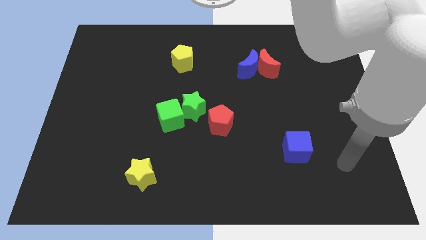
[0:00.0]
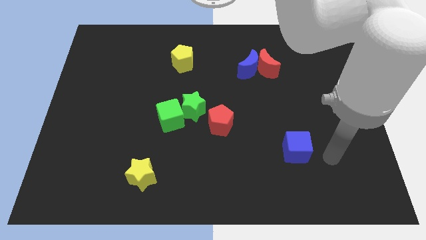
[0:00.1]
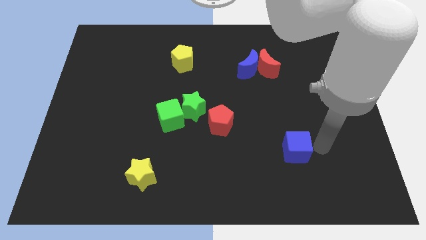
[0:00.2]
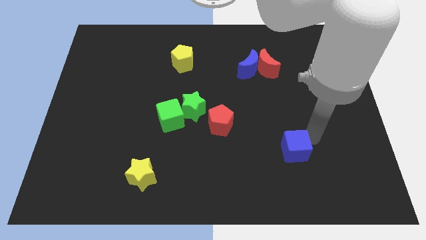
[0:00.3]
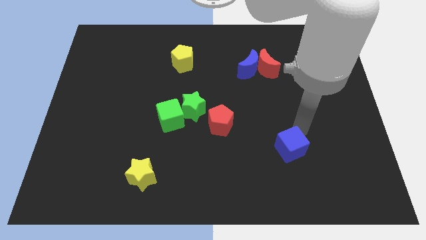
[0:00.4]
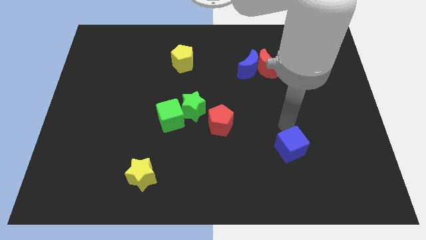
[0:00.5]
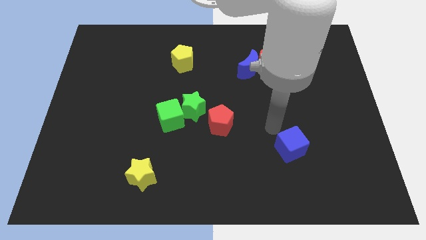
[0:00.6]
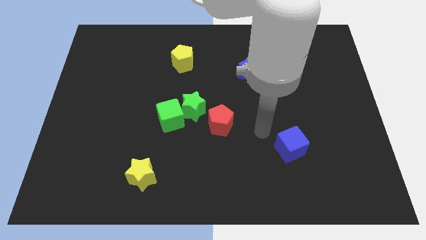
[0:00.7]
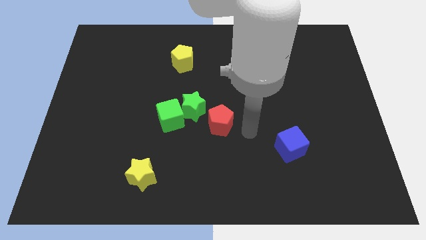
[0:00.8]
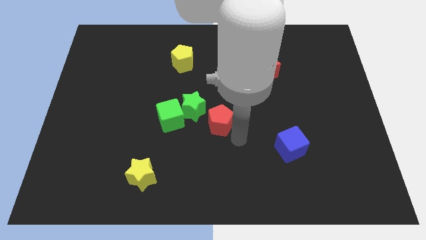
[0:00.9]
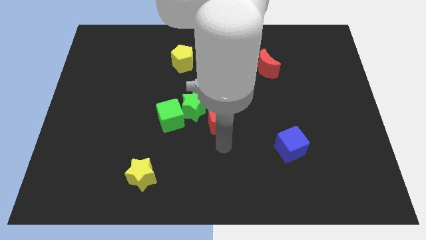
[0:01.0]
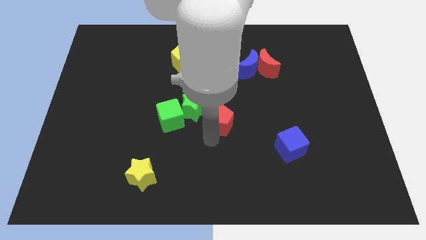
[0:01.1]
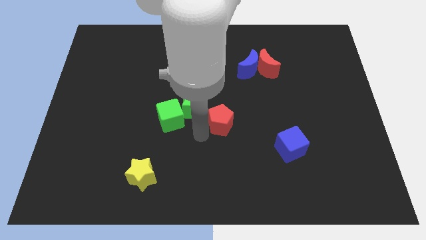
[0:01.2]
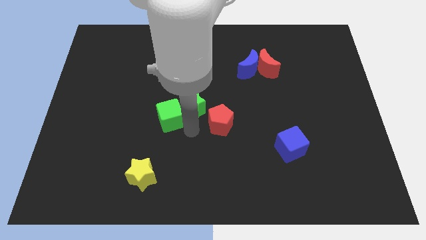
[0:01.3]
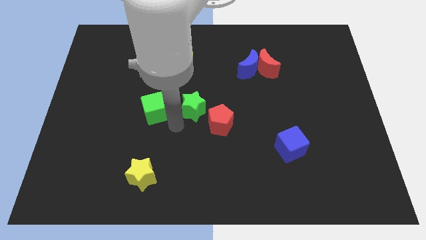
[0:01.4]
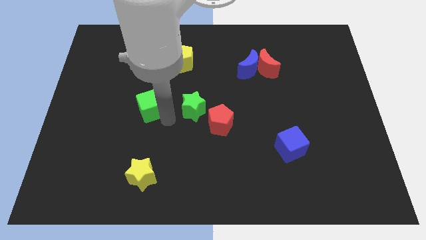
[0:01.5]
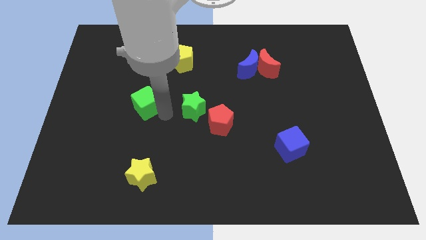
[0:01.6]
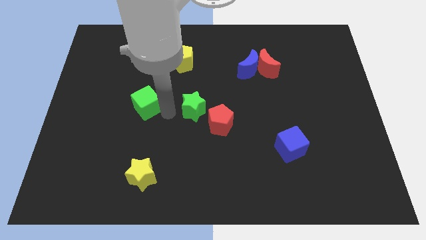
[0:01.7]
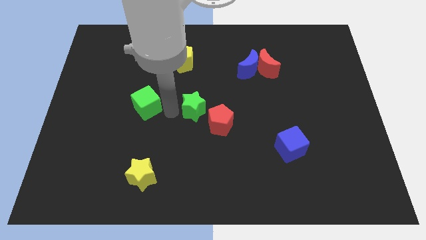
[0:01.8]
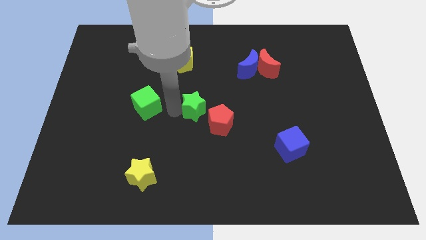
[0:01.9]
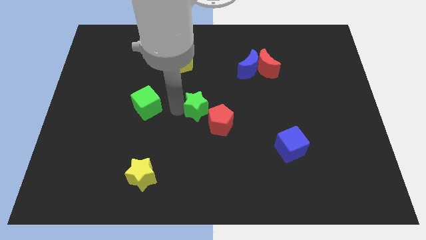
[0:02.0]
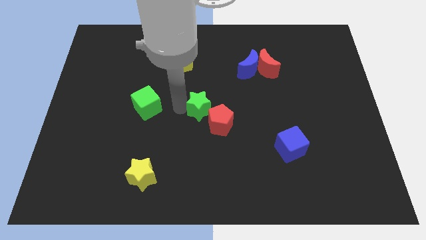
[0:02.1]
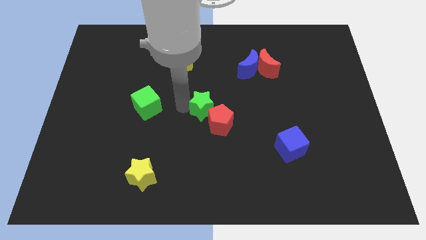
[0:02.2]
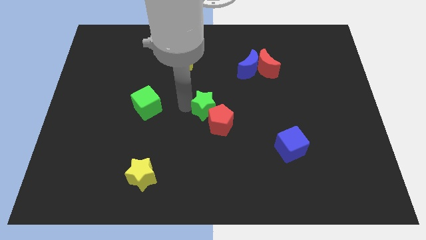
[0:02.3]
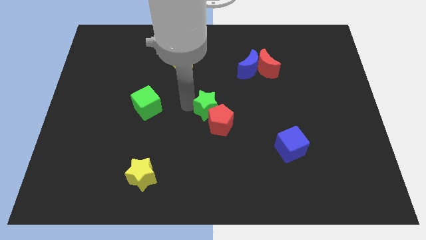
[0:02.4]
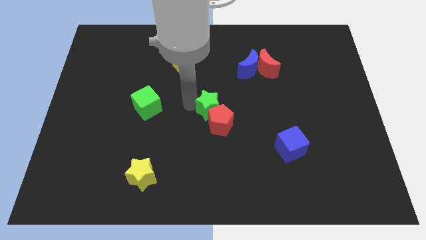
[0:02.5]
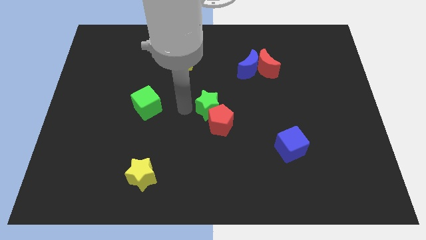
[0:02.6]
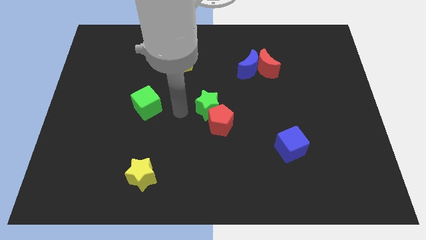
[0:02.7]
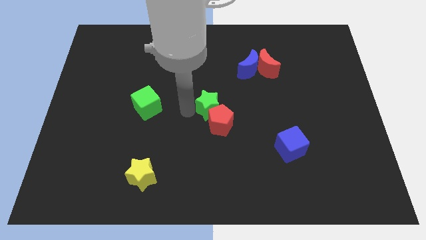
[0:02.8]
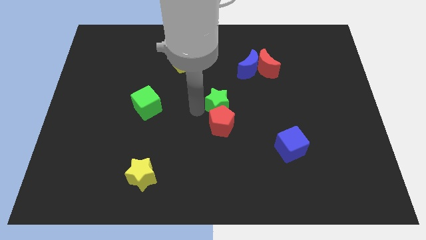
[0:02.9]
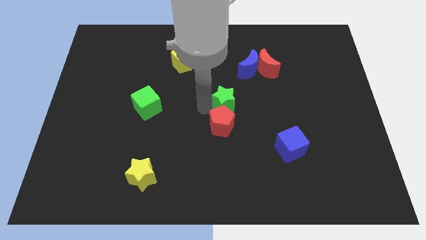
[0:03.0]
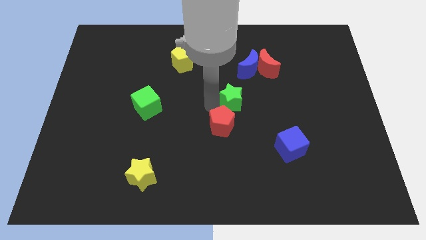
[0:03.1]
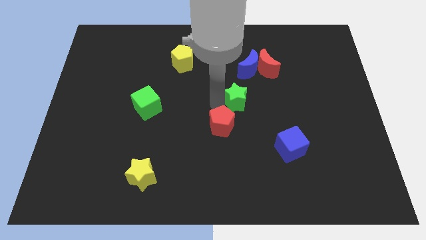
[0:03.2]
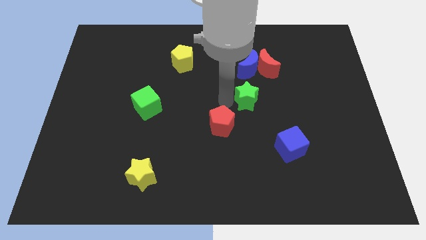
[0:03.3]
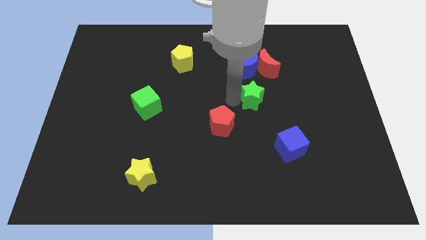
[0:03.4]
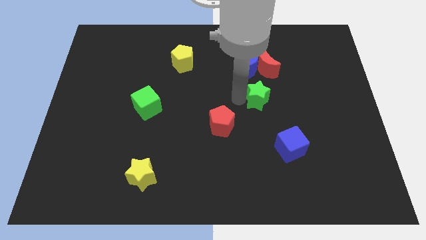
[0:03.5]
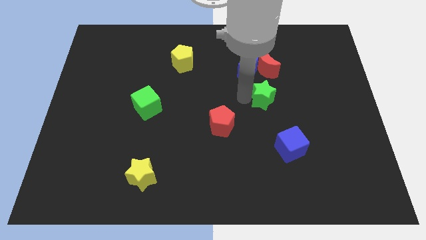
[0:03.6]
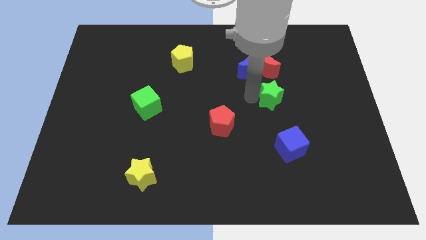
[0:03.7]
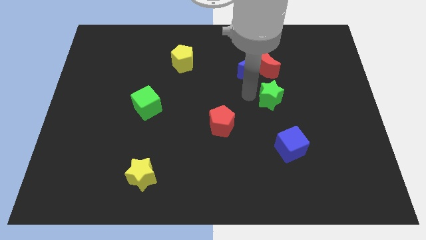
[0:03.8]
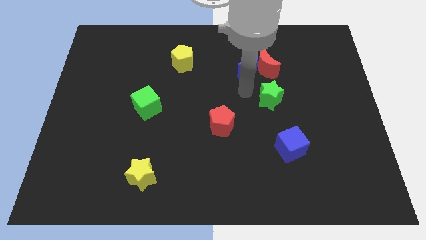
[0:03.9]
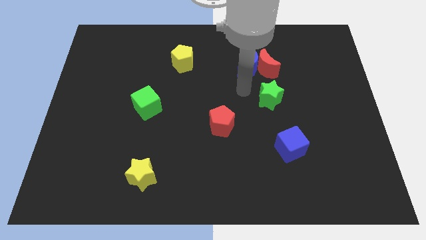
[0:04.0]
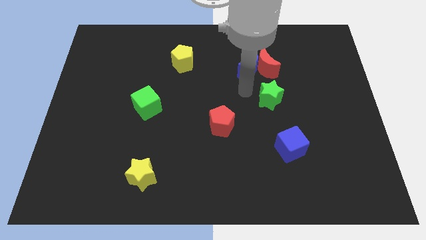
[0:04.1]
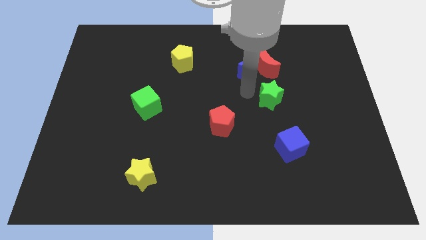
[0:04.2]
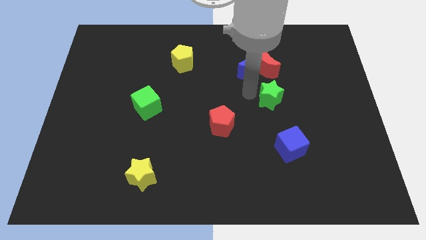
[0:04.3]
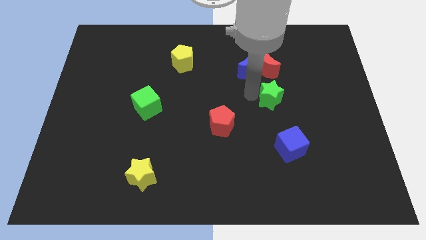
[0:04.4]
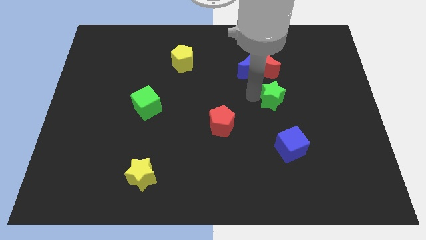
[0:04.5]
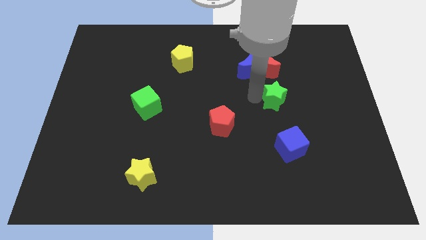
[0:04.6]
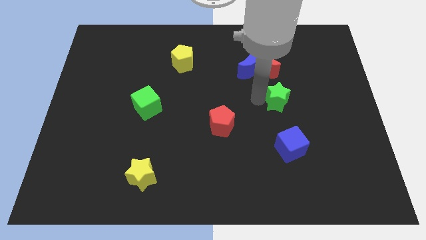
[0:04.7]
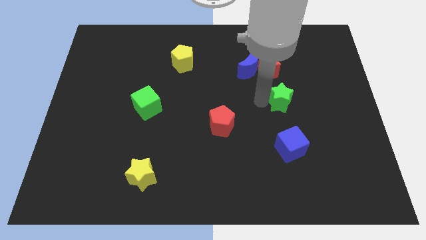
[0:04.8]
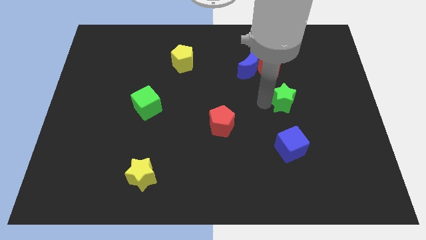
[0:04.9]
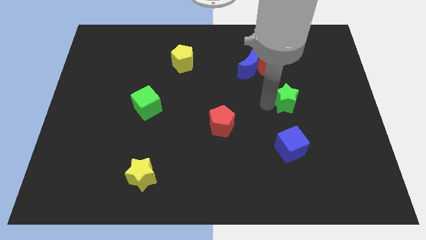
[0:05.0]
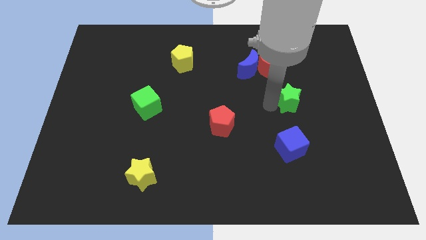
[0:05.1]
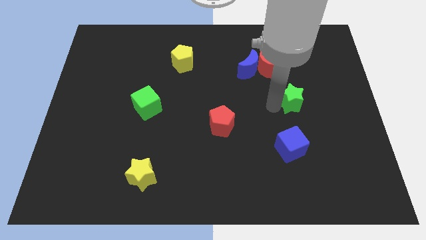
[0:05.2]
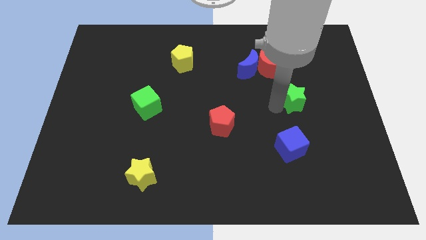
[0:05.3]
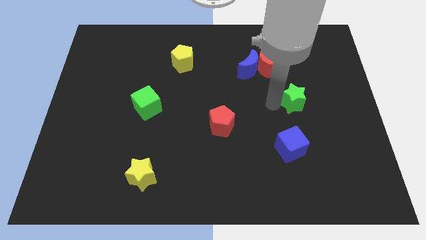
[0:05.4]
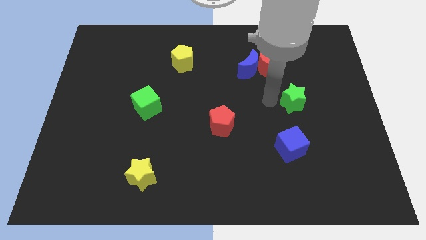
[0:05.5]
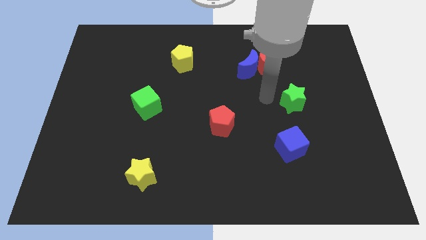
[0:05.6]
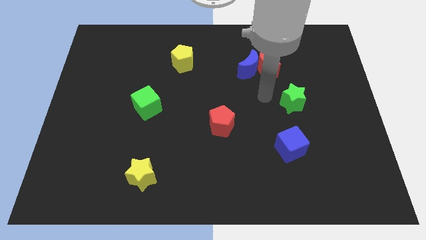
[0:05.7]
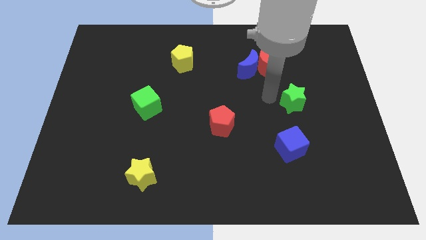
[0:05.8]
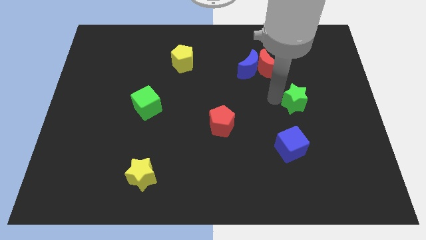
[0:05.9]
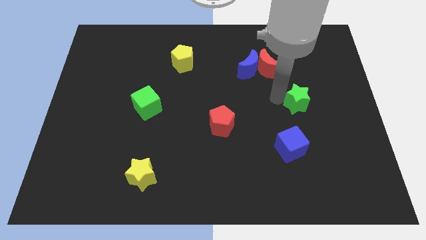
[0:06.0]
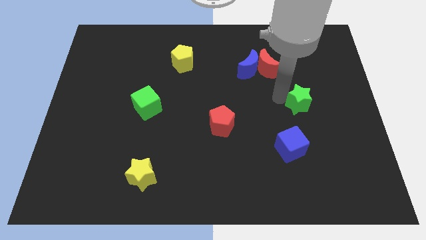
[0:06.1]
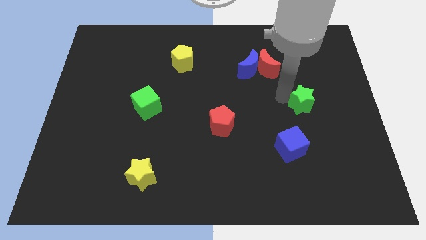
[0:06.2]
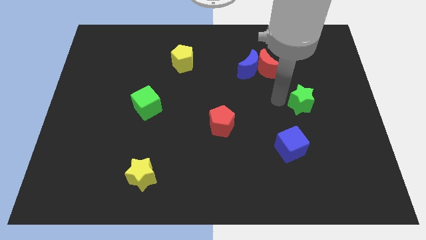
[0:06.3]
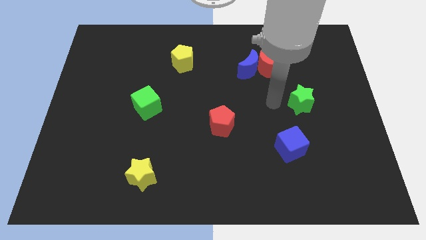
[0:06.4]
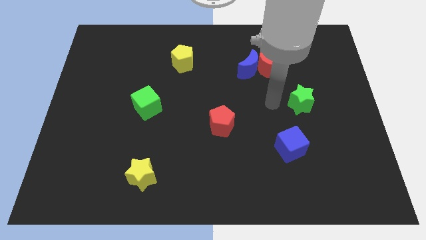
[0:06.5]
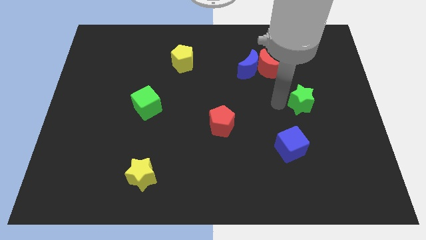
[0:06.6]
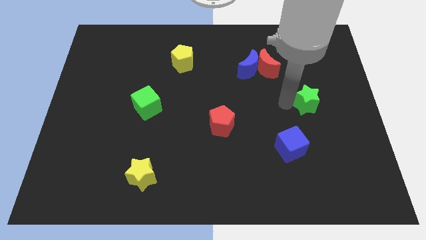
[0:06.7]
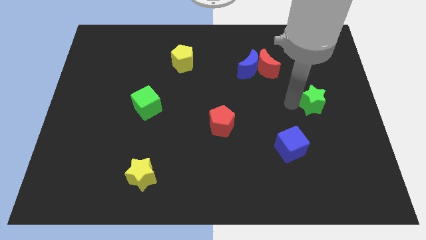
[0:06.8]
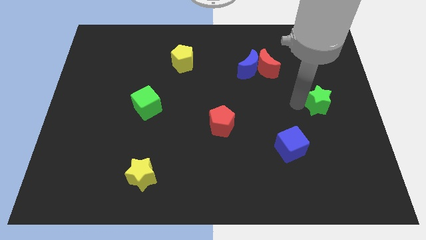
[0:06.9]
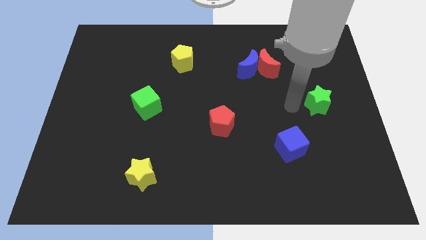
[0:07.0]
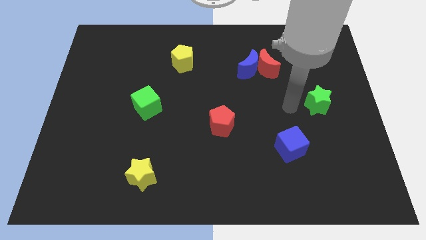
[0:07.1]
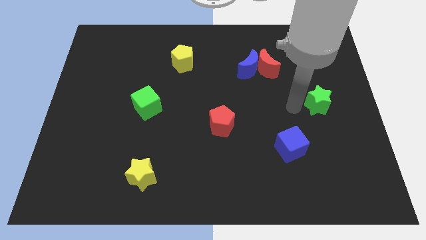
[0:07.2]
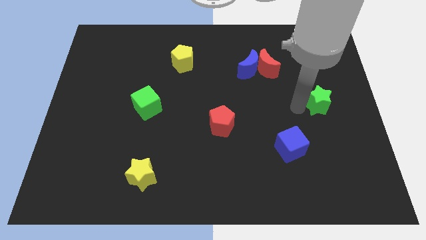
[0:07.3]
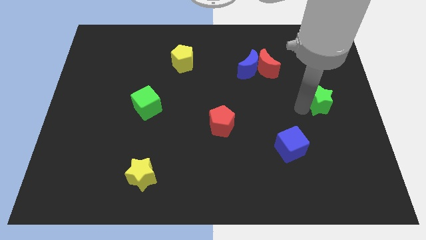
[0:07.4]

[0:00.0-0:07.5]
move the green star to the right side
